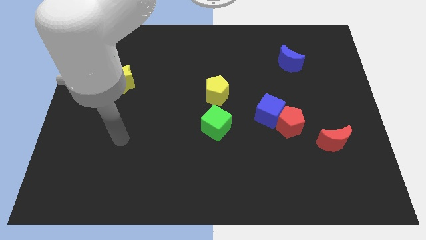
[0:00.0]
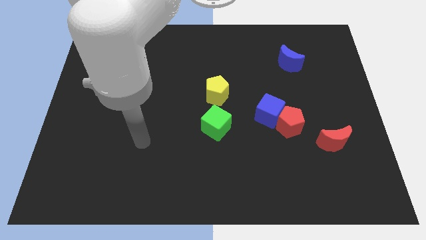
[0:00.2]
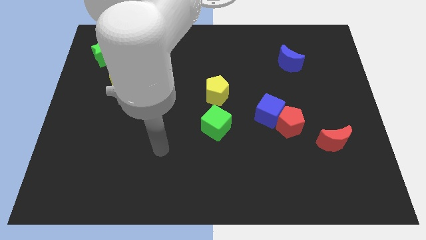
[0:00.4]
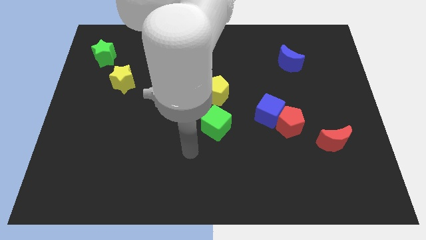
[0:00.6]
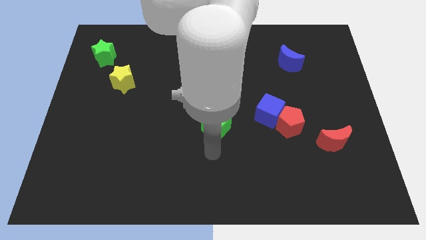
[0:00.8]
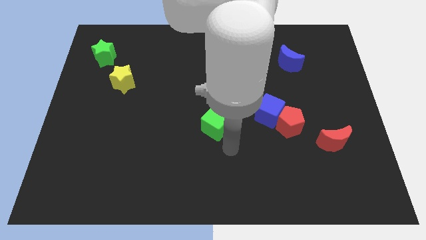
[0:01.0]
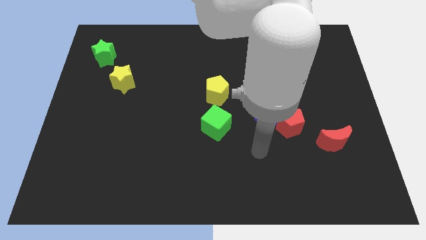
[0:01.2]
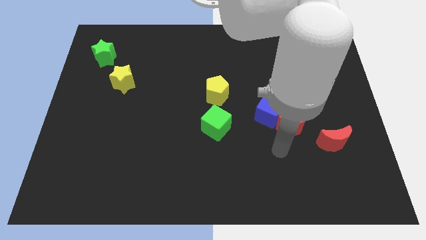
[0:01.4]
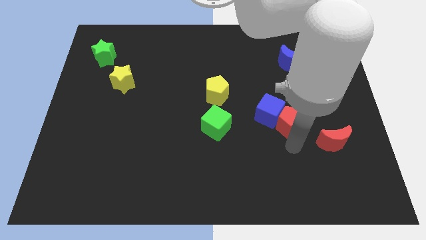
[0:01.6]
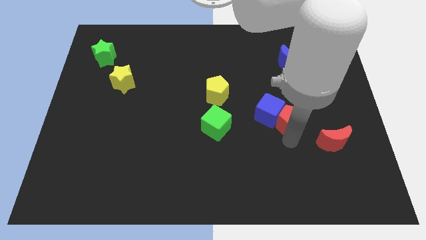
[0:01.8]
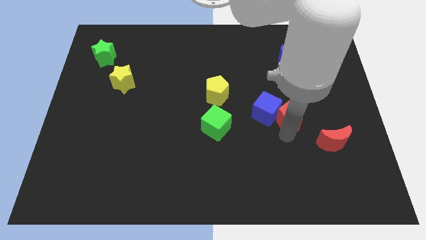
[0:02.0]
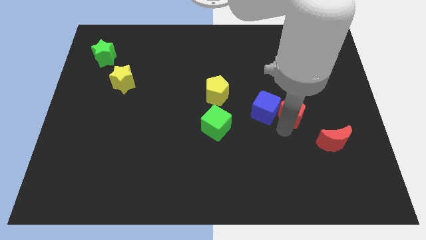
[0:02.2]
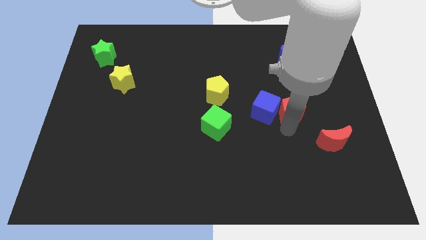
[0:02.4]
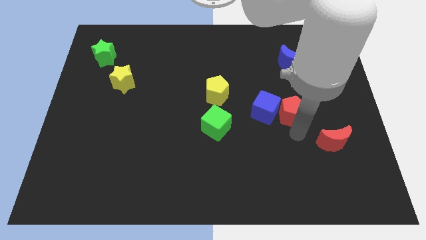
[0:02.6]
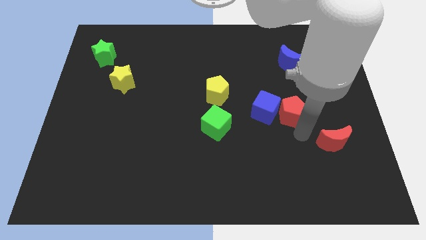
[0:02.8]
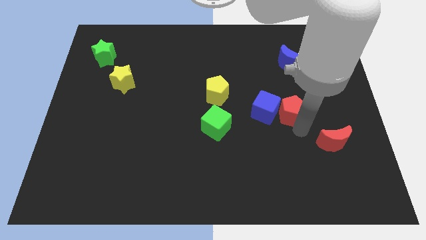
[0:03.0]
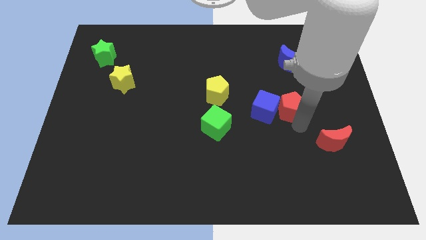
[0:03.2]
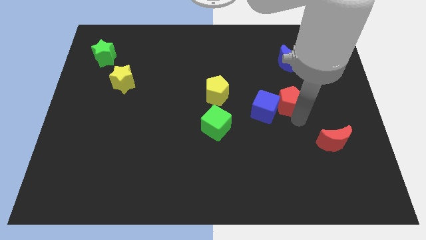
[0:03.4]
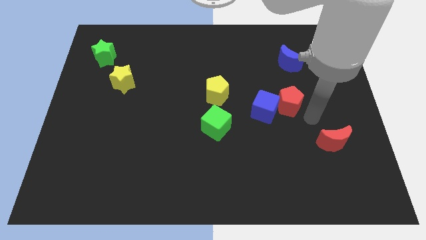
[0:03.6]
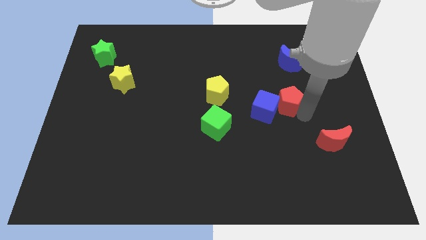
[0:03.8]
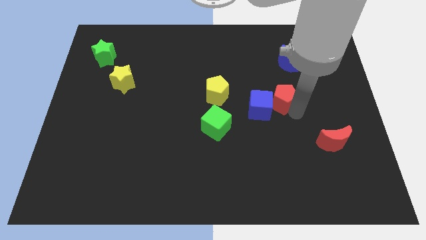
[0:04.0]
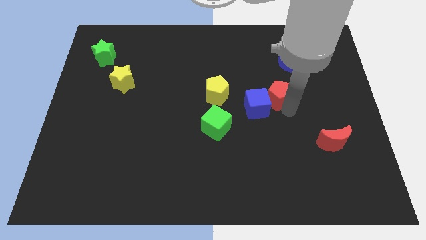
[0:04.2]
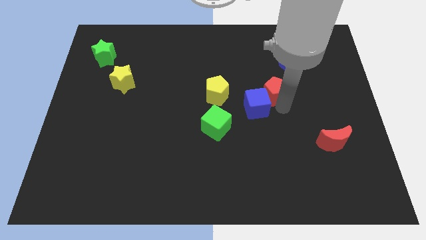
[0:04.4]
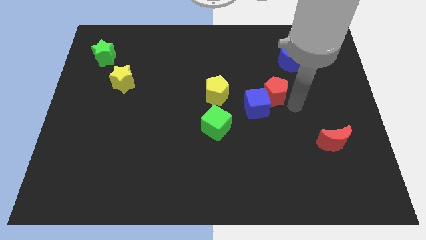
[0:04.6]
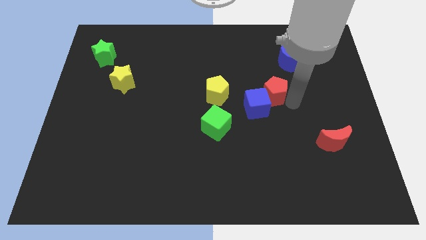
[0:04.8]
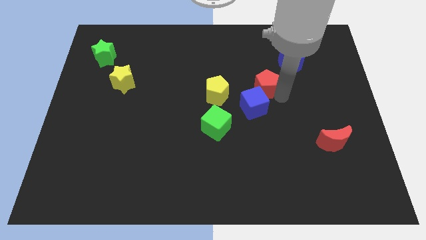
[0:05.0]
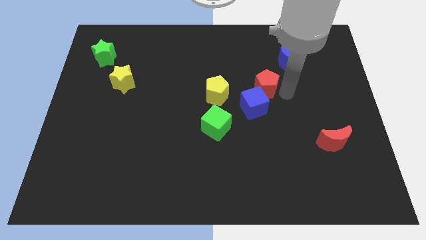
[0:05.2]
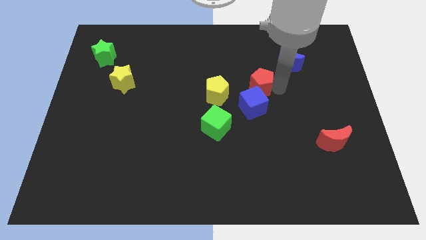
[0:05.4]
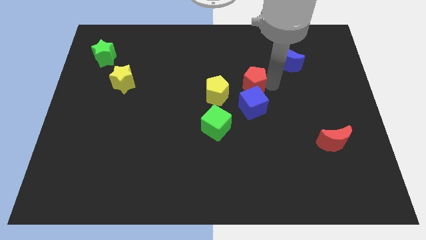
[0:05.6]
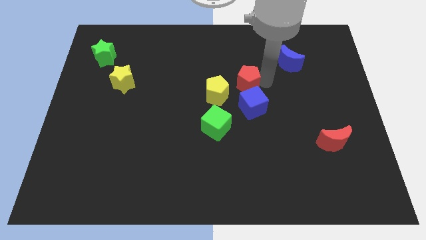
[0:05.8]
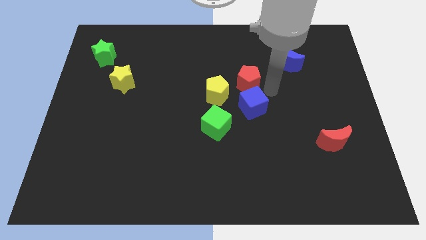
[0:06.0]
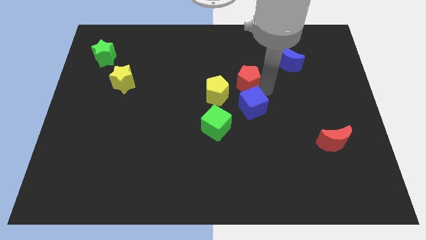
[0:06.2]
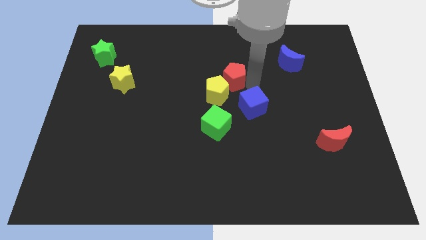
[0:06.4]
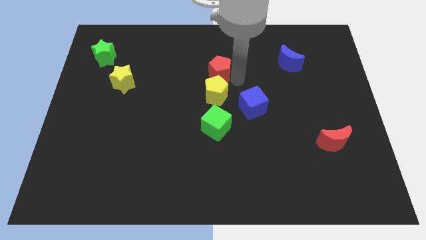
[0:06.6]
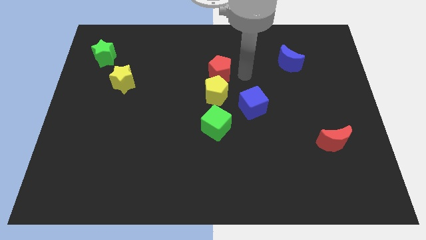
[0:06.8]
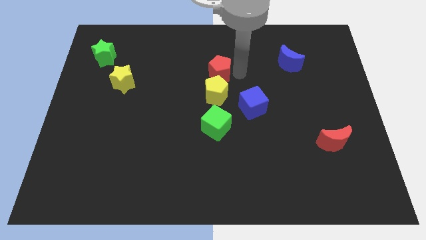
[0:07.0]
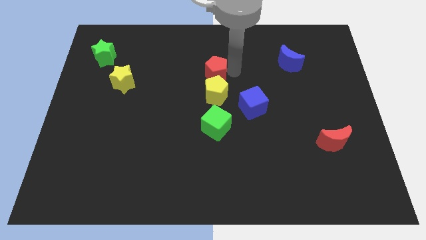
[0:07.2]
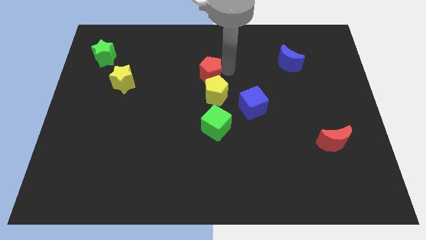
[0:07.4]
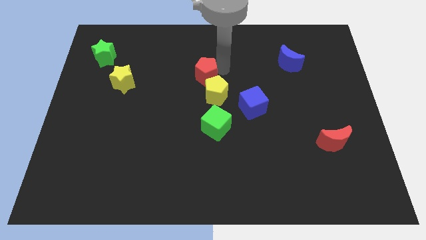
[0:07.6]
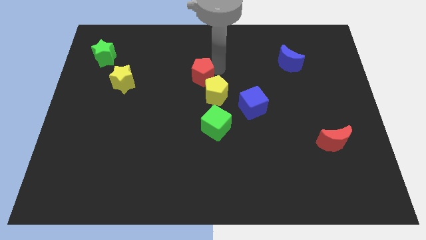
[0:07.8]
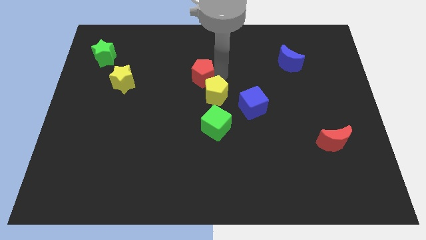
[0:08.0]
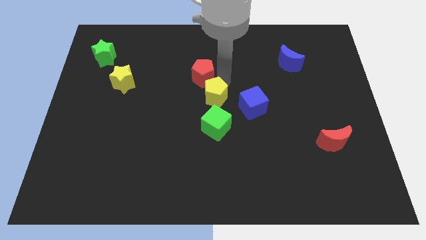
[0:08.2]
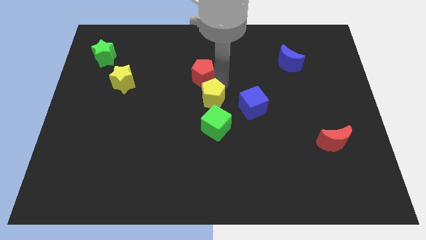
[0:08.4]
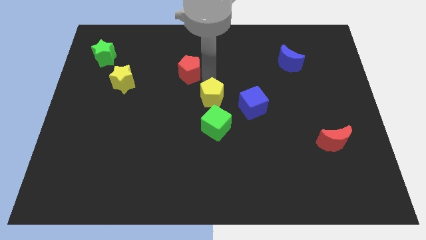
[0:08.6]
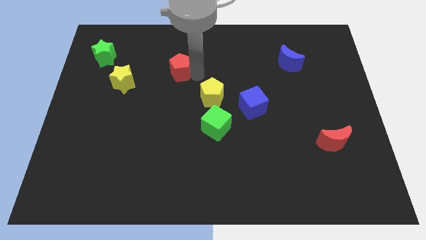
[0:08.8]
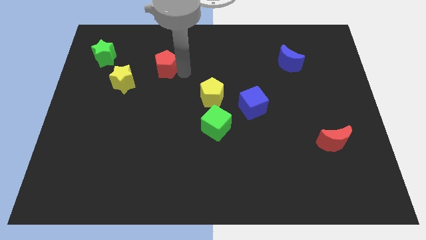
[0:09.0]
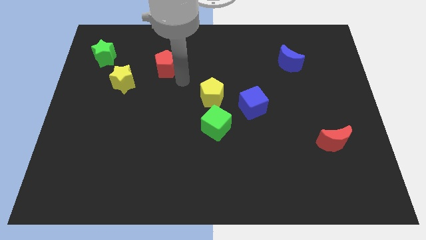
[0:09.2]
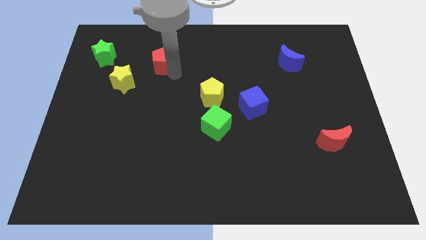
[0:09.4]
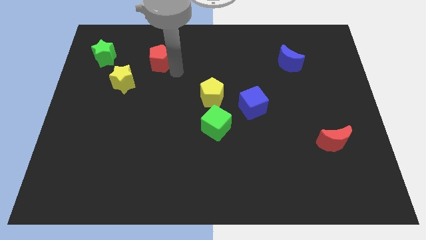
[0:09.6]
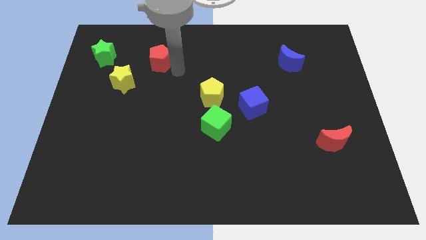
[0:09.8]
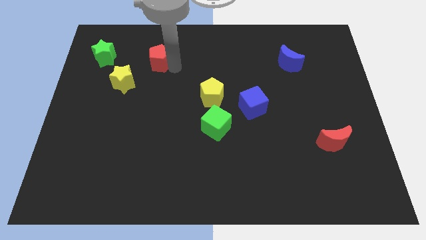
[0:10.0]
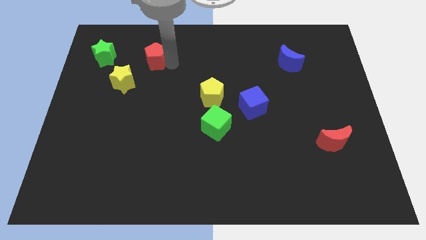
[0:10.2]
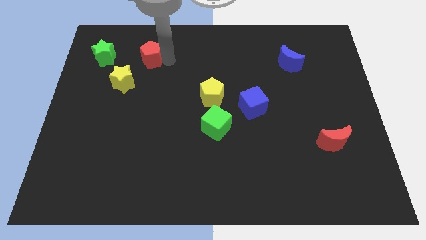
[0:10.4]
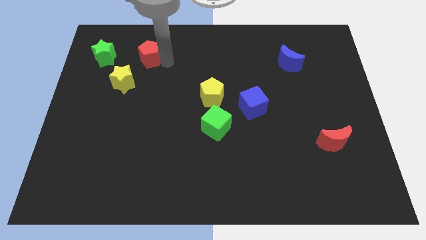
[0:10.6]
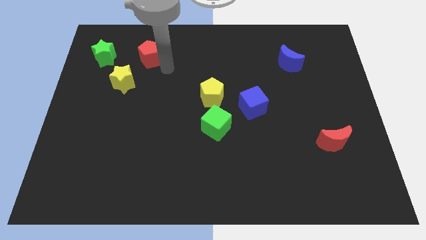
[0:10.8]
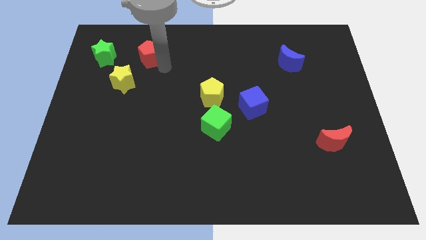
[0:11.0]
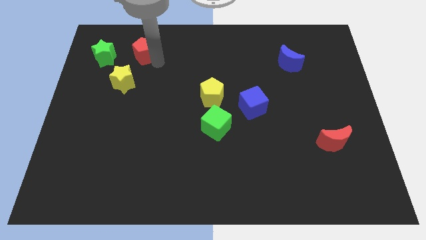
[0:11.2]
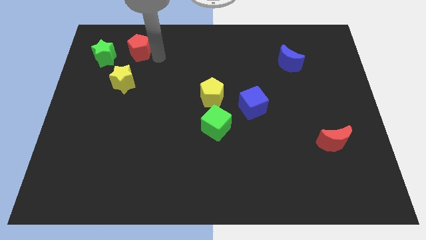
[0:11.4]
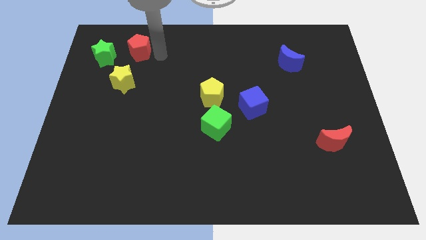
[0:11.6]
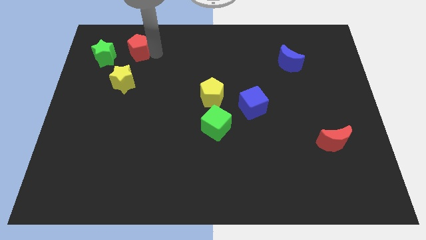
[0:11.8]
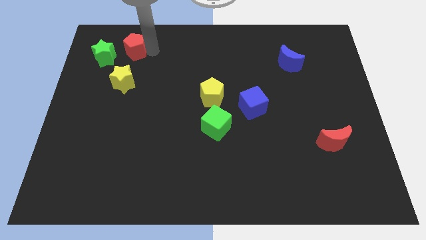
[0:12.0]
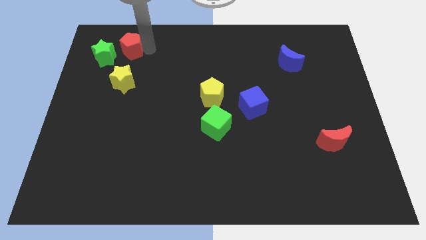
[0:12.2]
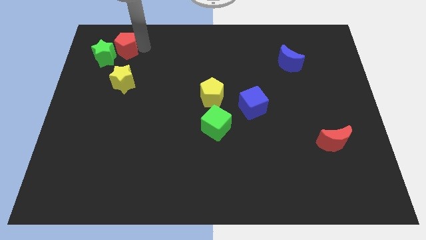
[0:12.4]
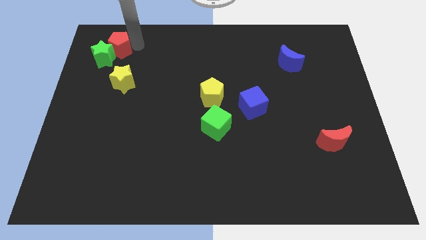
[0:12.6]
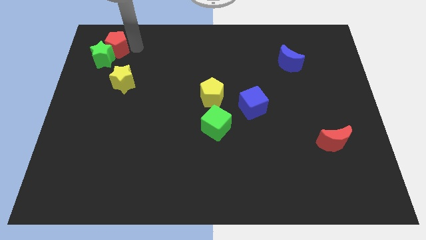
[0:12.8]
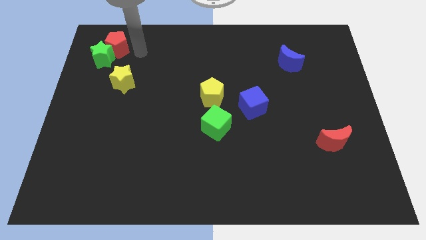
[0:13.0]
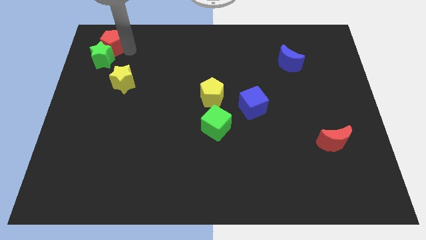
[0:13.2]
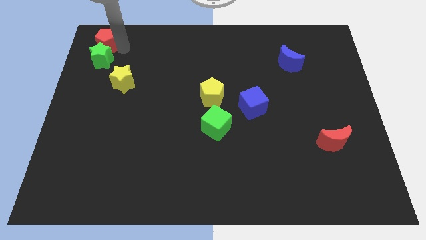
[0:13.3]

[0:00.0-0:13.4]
slide the red pentagon to the upper left corner
